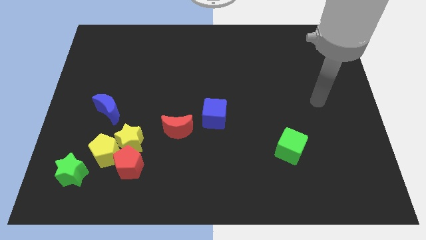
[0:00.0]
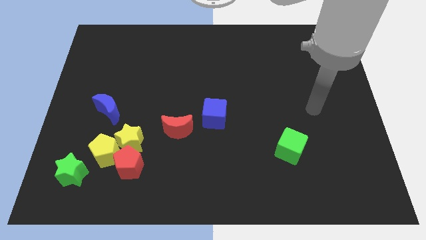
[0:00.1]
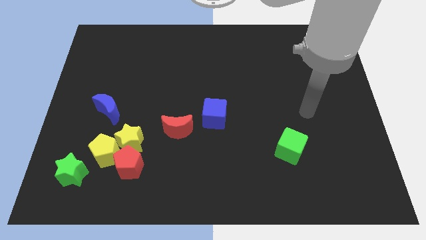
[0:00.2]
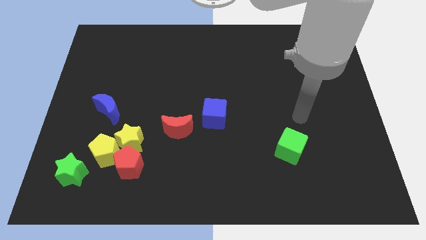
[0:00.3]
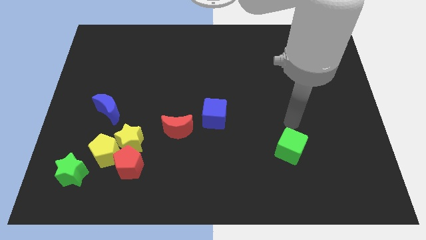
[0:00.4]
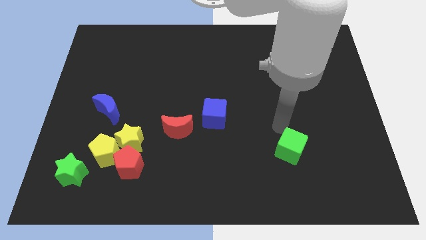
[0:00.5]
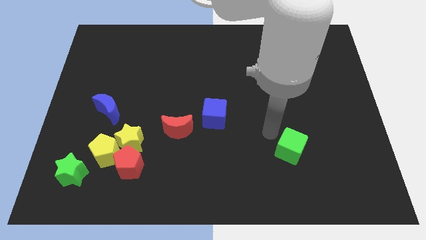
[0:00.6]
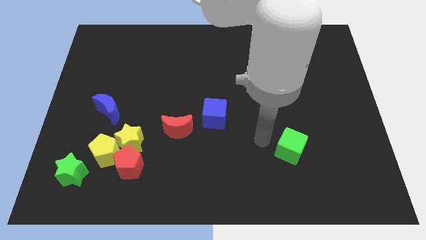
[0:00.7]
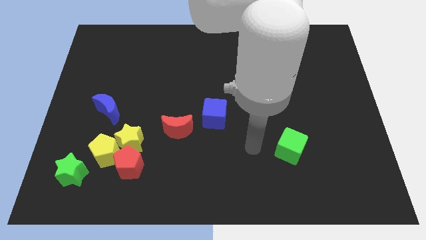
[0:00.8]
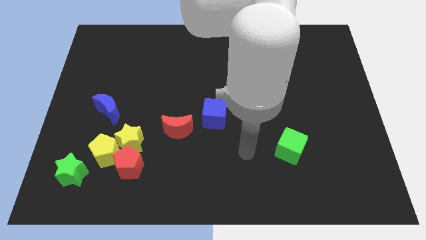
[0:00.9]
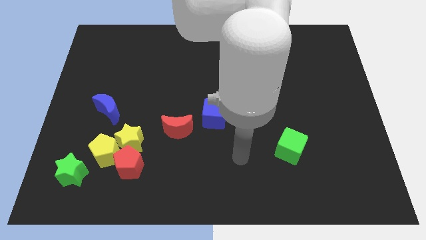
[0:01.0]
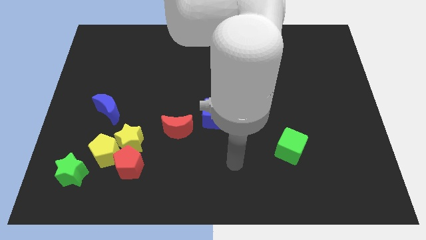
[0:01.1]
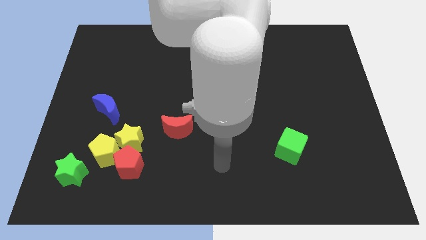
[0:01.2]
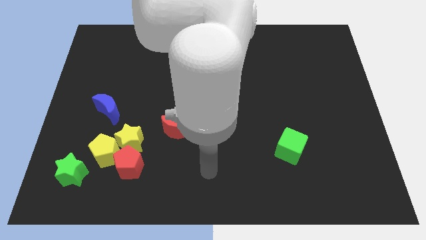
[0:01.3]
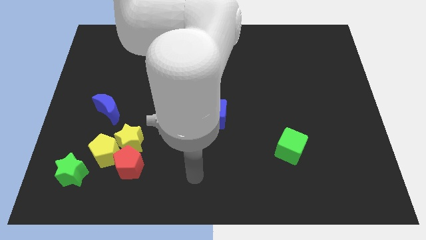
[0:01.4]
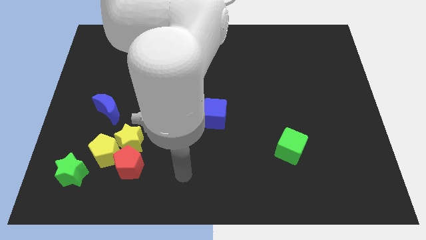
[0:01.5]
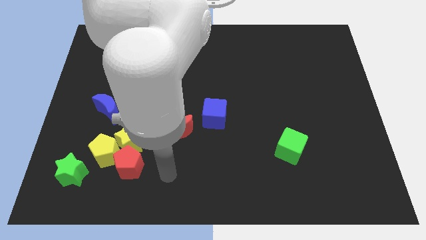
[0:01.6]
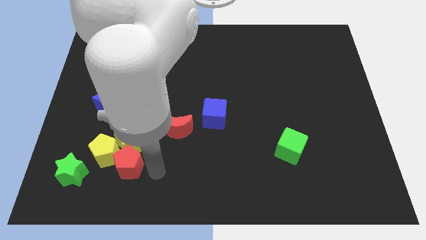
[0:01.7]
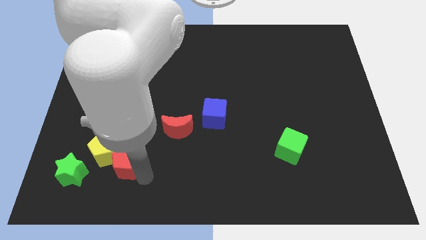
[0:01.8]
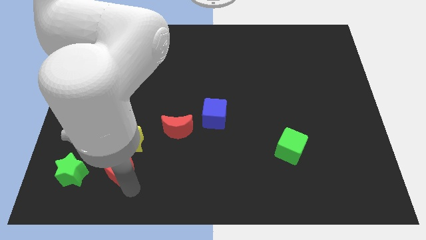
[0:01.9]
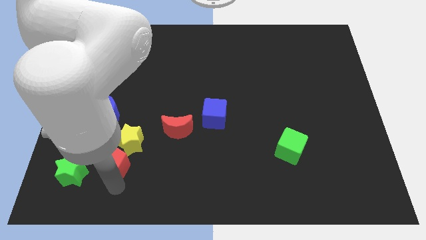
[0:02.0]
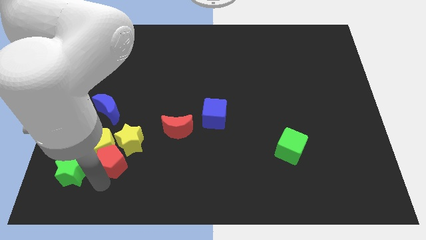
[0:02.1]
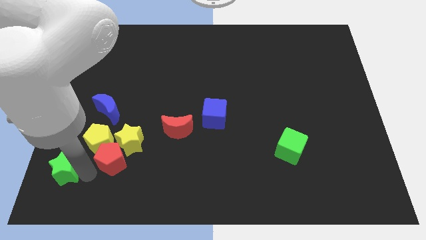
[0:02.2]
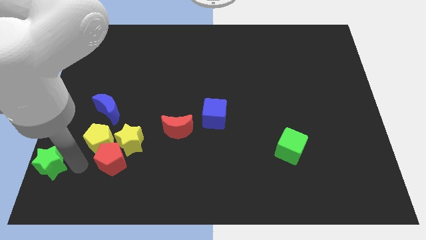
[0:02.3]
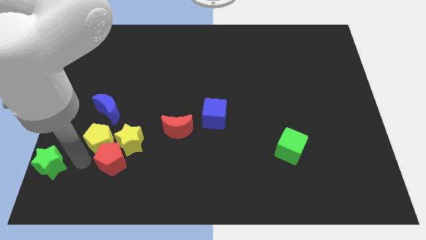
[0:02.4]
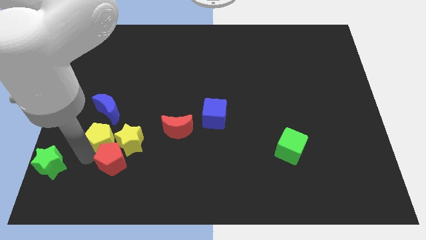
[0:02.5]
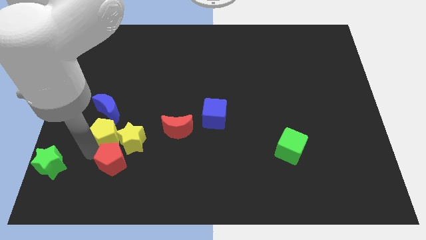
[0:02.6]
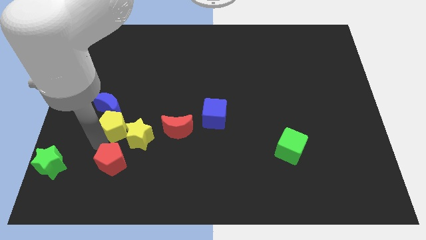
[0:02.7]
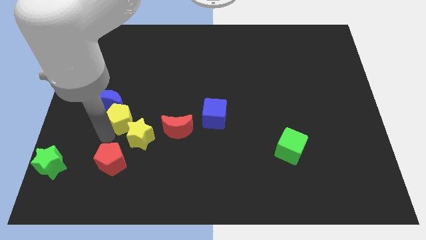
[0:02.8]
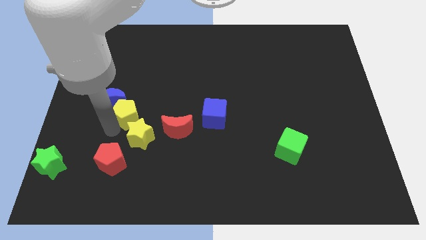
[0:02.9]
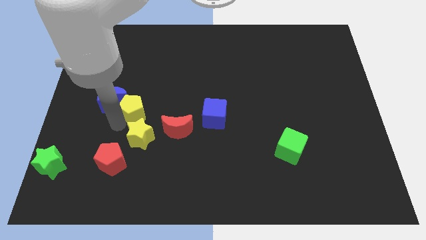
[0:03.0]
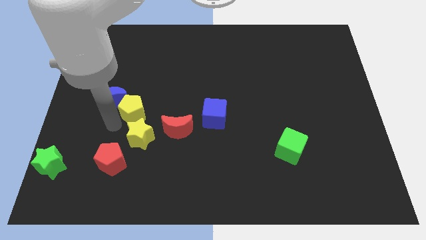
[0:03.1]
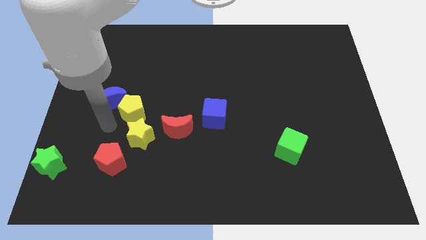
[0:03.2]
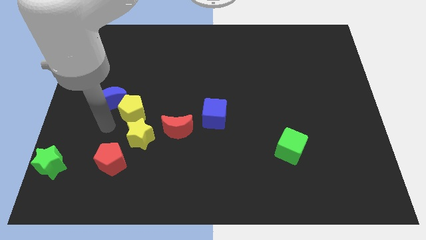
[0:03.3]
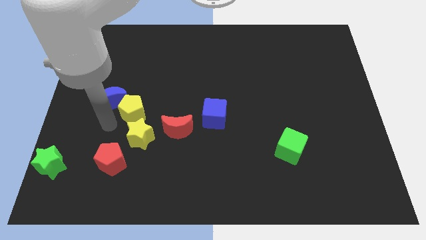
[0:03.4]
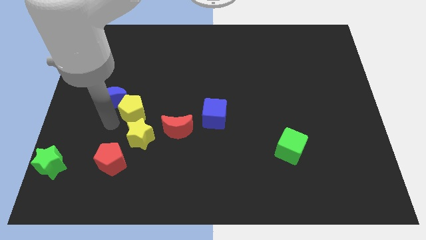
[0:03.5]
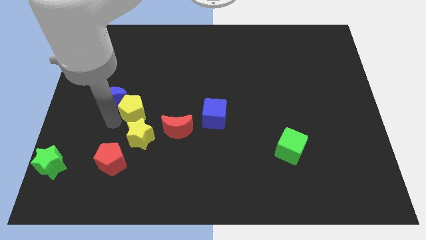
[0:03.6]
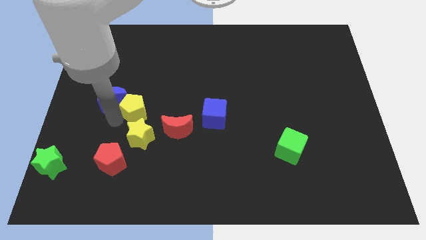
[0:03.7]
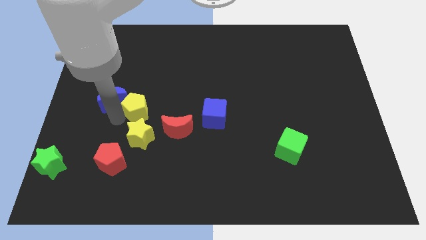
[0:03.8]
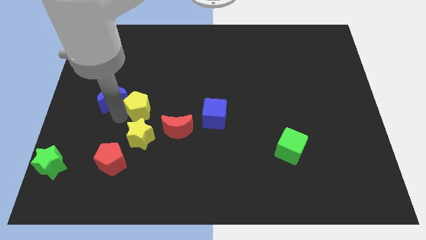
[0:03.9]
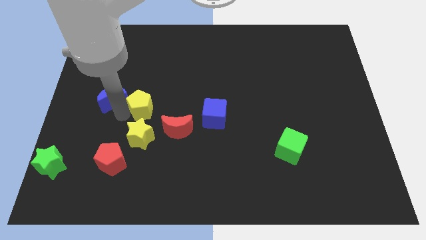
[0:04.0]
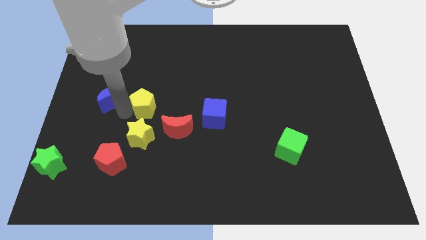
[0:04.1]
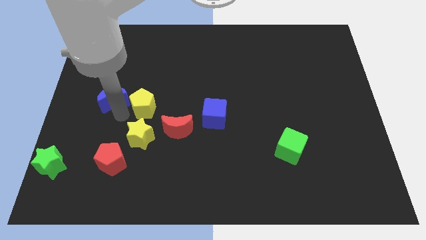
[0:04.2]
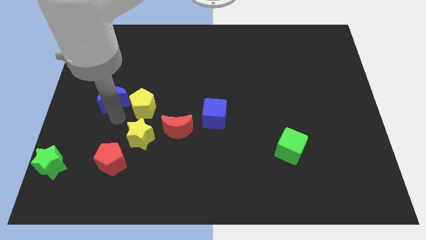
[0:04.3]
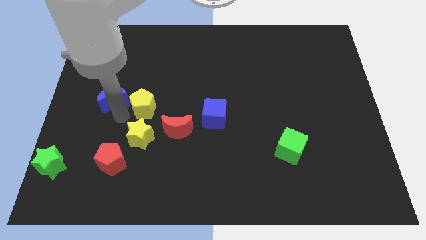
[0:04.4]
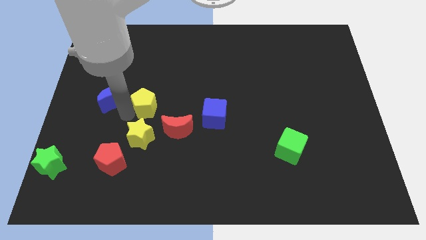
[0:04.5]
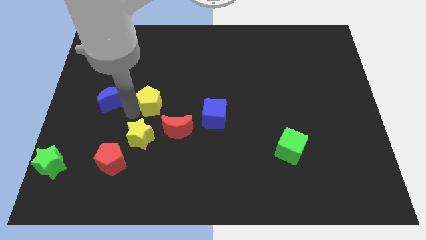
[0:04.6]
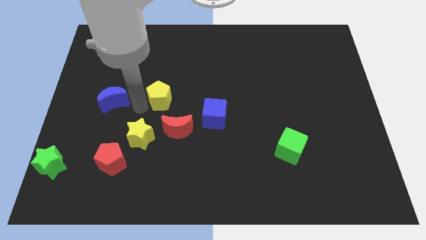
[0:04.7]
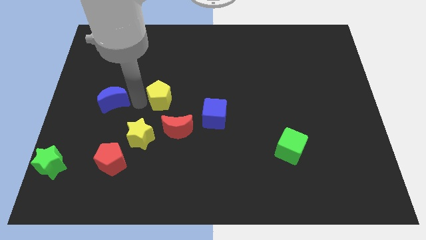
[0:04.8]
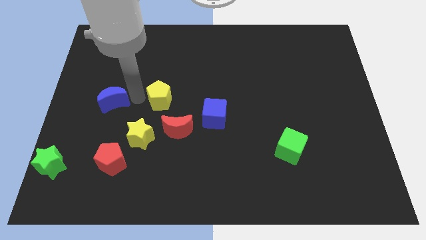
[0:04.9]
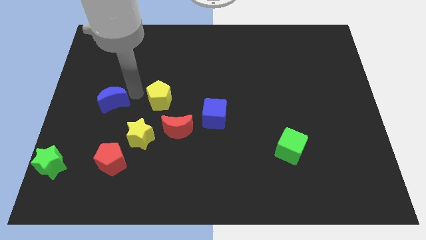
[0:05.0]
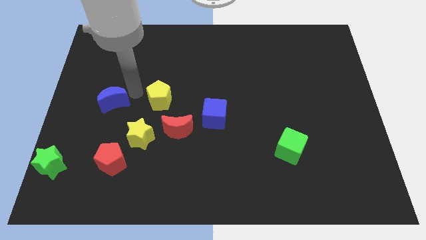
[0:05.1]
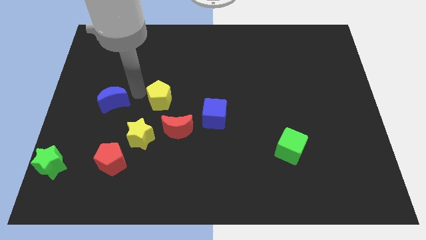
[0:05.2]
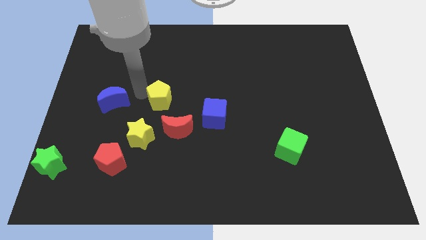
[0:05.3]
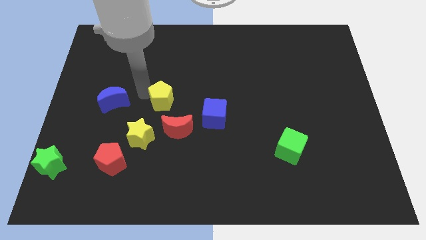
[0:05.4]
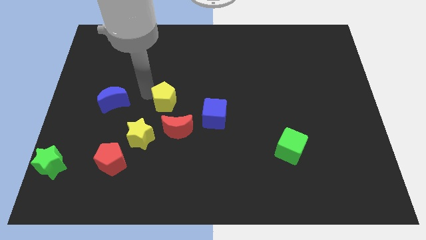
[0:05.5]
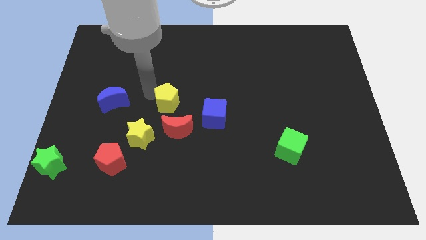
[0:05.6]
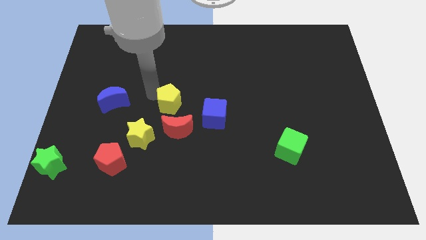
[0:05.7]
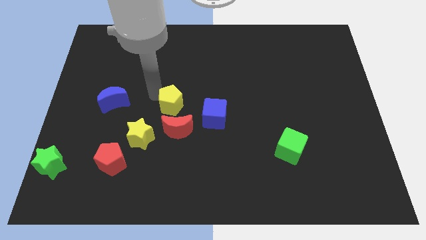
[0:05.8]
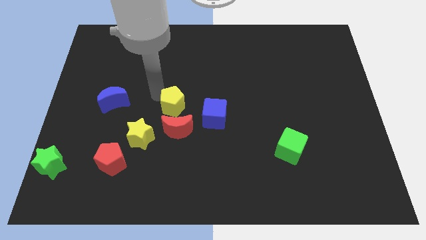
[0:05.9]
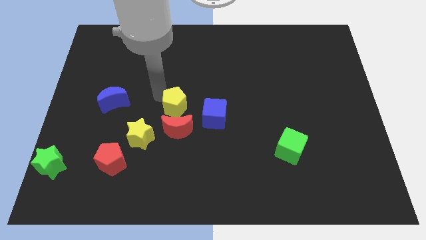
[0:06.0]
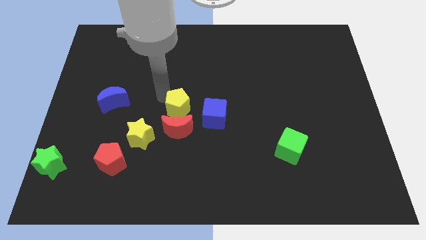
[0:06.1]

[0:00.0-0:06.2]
slide the yellow pentagon to the top right side of the red moon

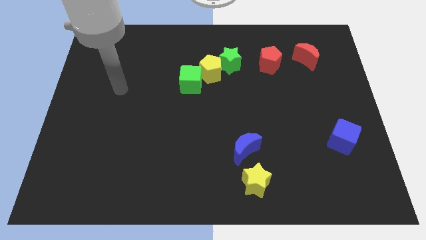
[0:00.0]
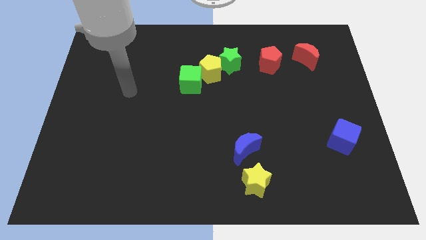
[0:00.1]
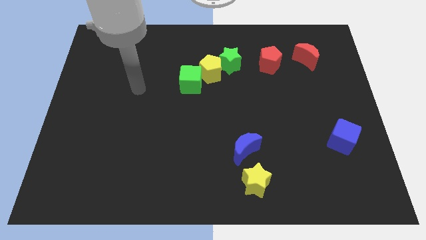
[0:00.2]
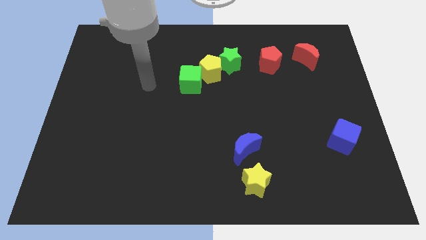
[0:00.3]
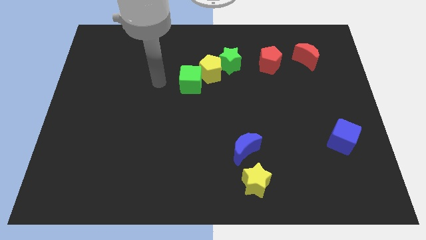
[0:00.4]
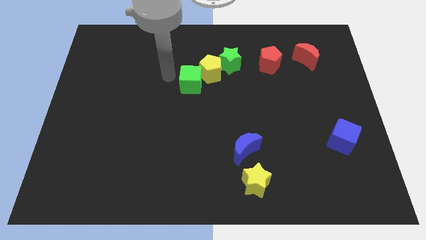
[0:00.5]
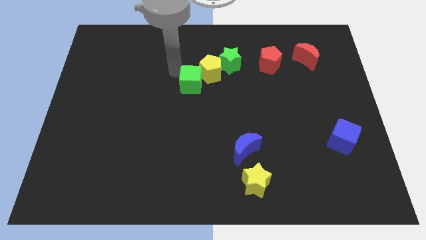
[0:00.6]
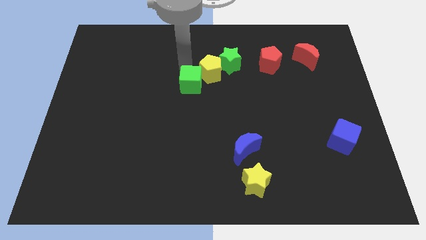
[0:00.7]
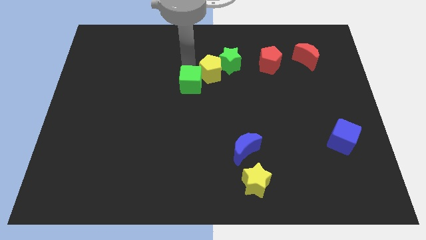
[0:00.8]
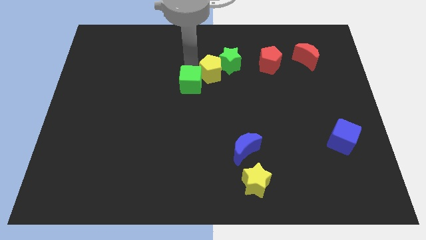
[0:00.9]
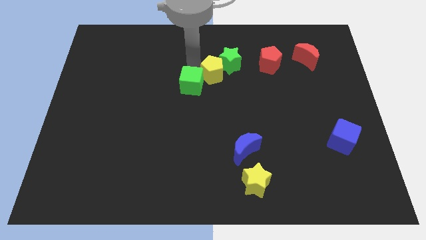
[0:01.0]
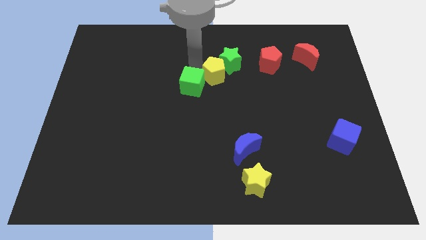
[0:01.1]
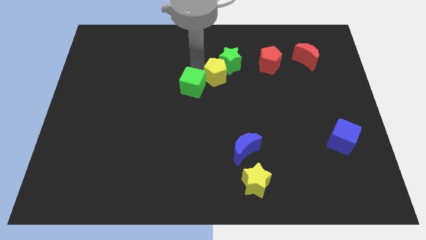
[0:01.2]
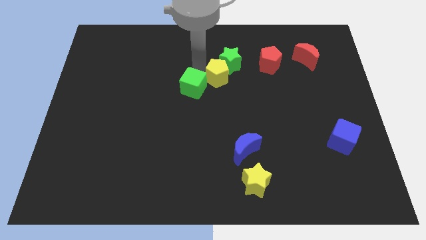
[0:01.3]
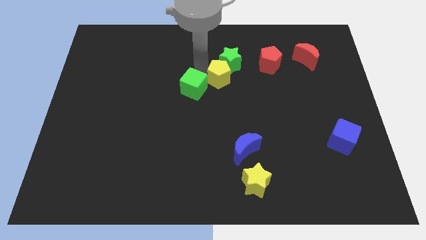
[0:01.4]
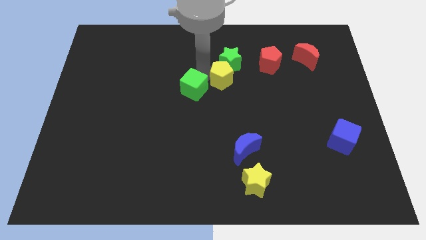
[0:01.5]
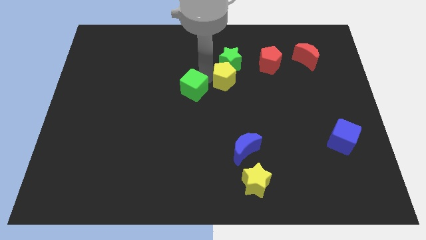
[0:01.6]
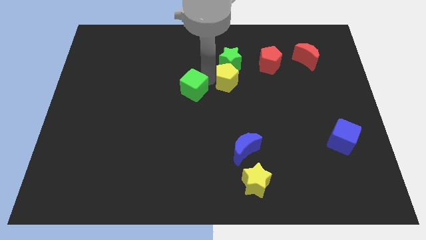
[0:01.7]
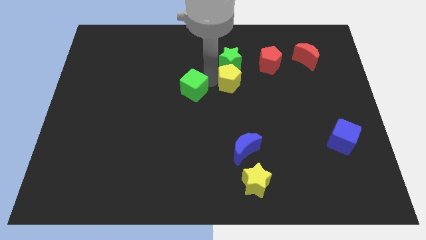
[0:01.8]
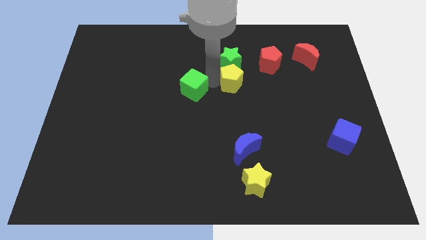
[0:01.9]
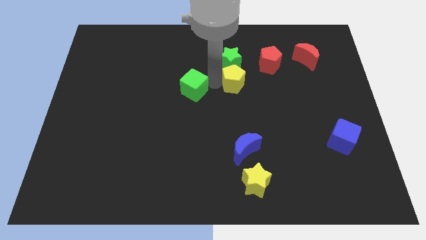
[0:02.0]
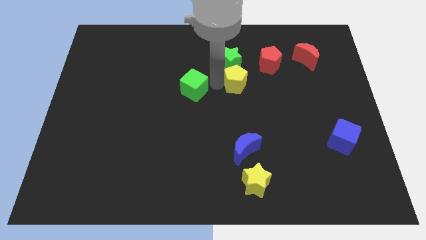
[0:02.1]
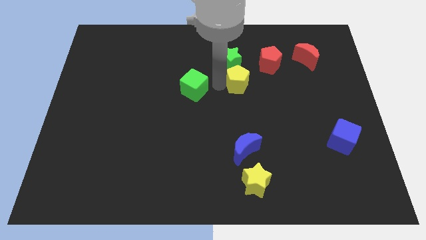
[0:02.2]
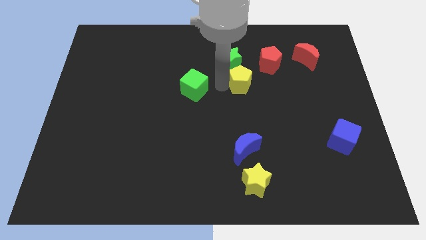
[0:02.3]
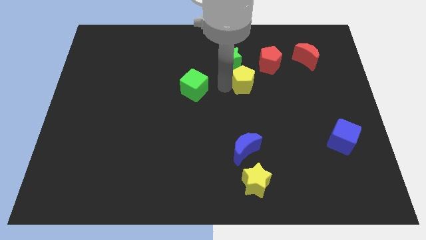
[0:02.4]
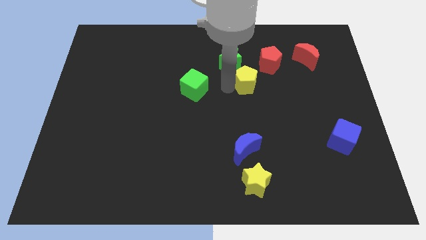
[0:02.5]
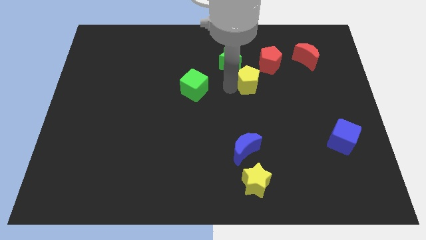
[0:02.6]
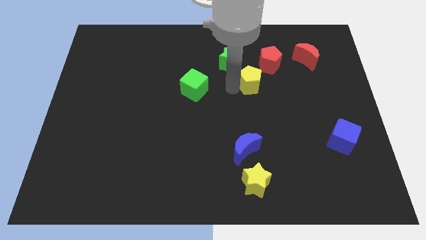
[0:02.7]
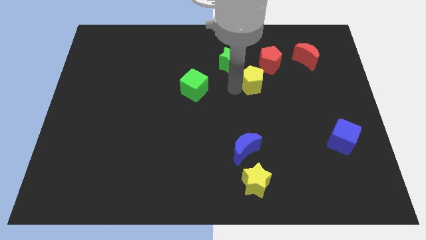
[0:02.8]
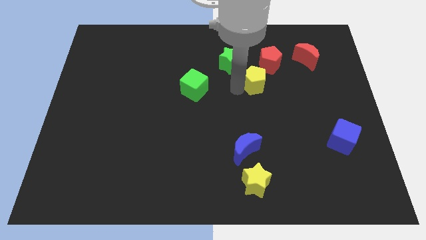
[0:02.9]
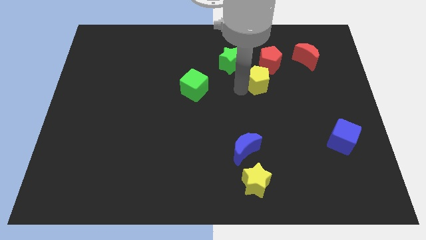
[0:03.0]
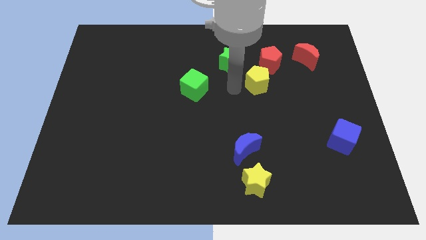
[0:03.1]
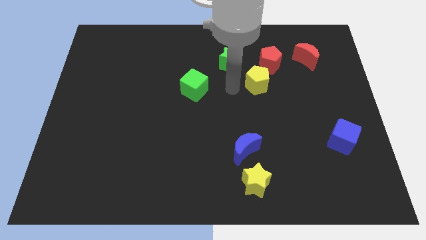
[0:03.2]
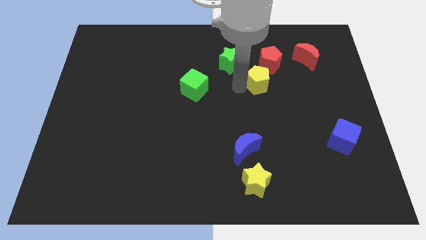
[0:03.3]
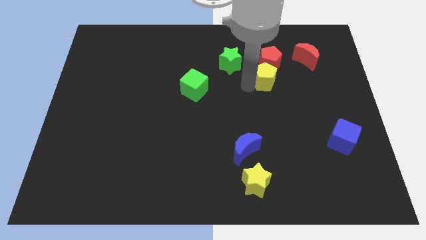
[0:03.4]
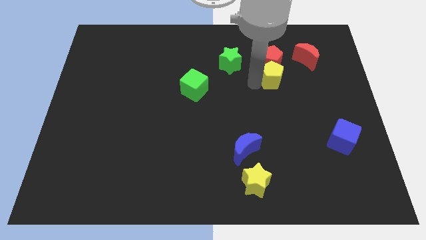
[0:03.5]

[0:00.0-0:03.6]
put the yellow pentagon to the bottom right side of the red pentagon
